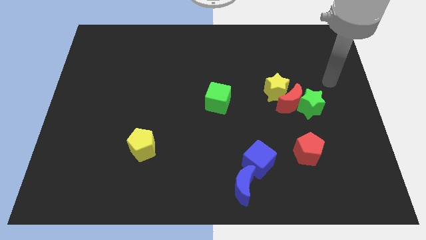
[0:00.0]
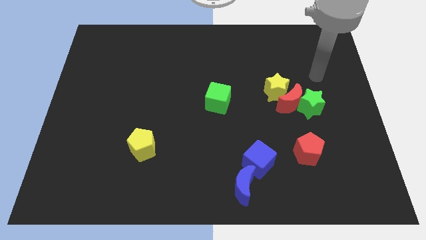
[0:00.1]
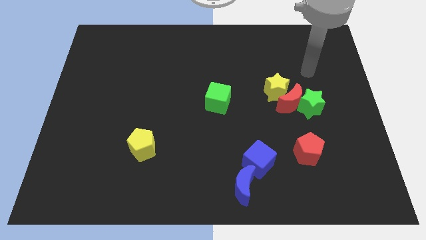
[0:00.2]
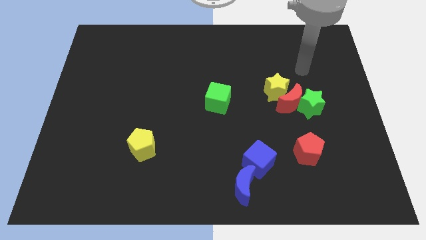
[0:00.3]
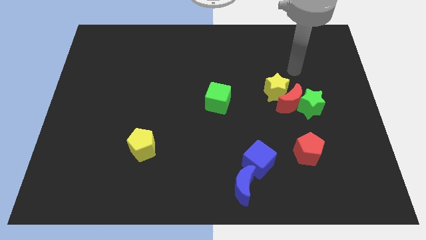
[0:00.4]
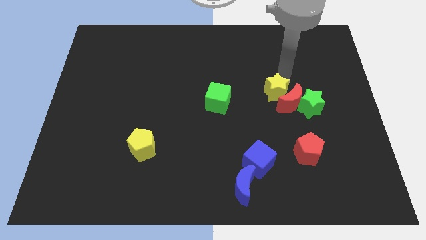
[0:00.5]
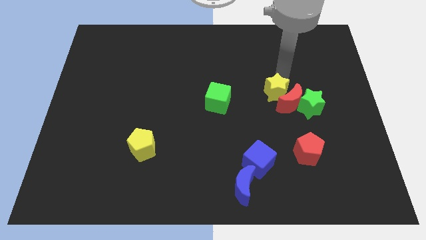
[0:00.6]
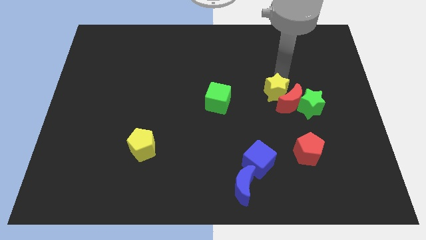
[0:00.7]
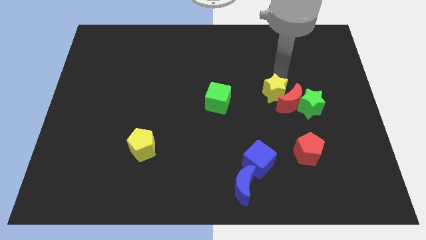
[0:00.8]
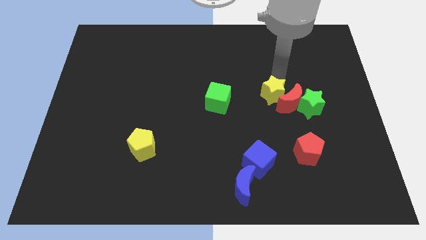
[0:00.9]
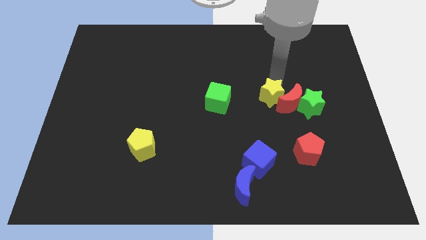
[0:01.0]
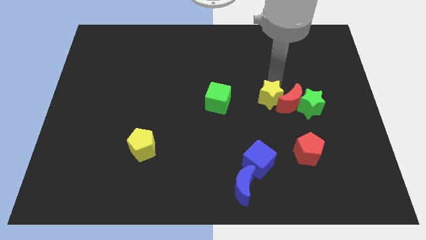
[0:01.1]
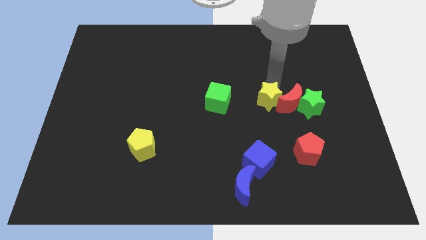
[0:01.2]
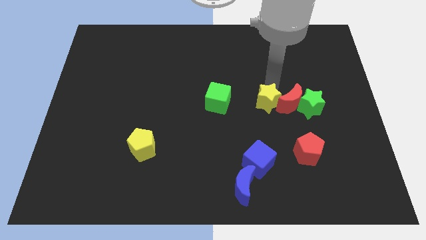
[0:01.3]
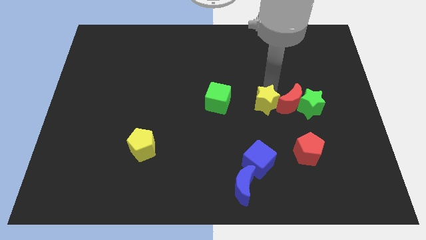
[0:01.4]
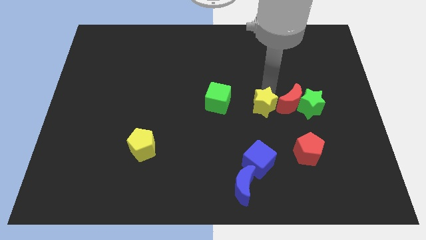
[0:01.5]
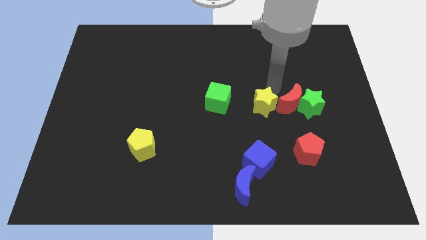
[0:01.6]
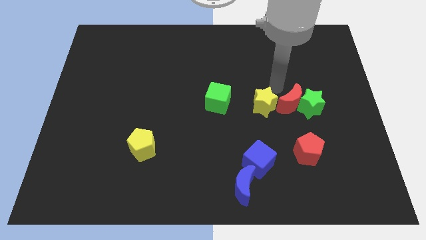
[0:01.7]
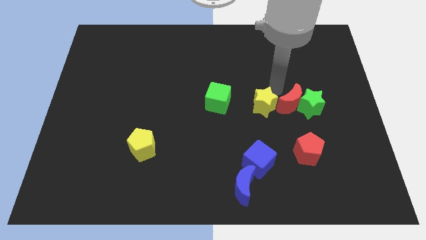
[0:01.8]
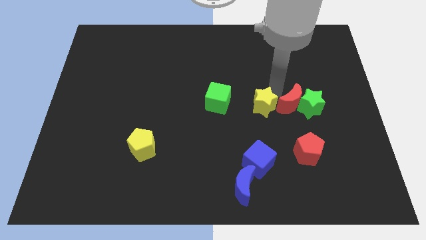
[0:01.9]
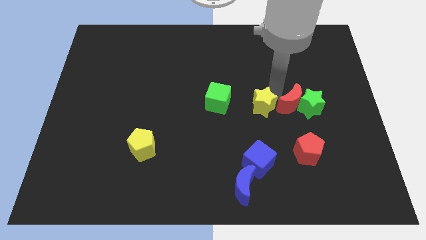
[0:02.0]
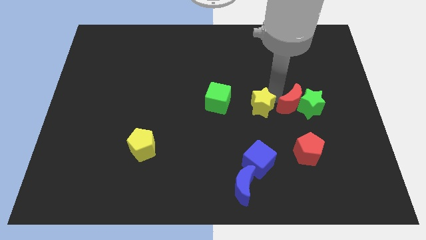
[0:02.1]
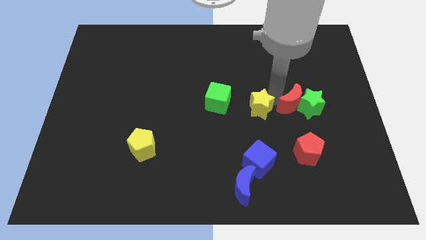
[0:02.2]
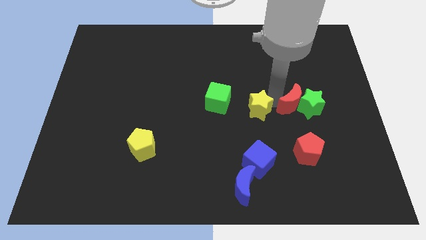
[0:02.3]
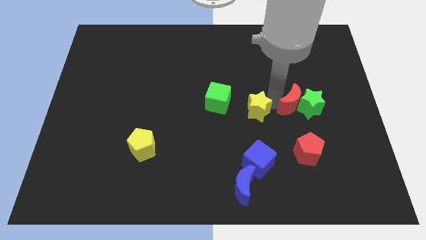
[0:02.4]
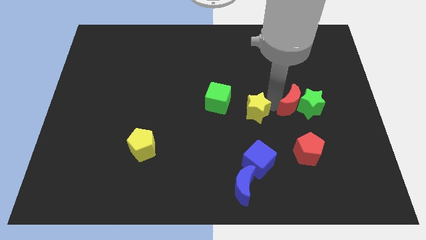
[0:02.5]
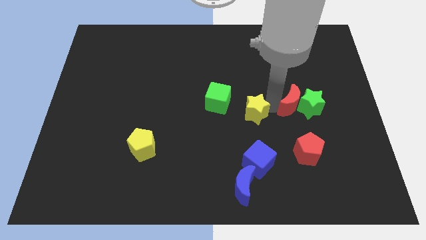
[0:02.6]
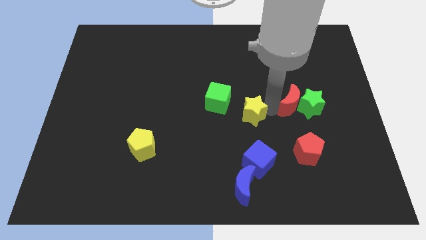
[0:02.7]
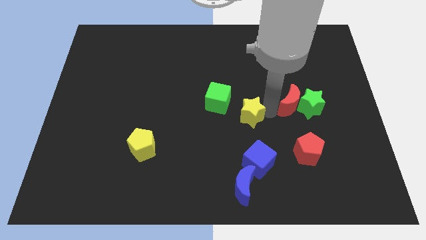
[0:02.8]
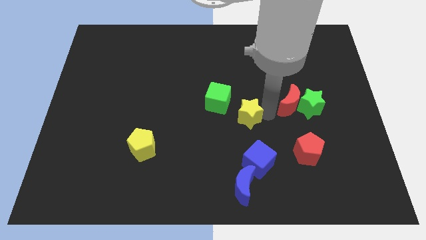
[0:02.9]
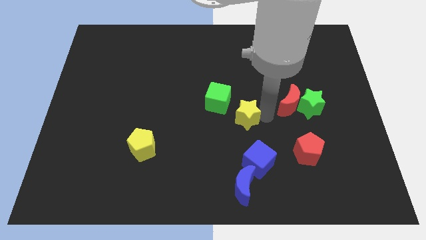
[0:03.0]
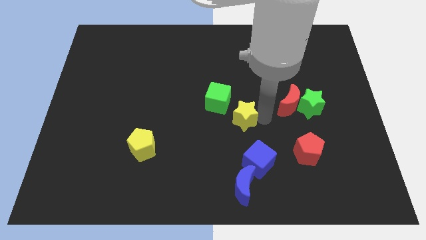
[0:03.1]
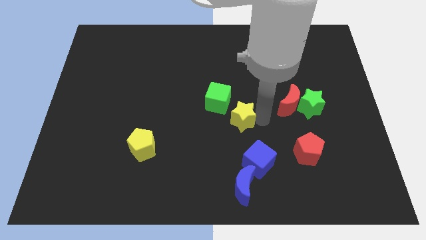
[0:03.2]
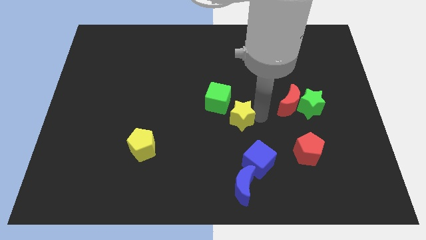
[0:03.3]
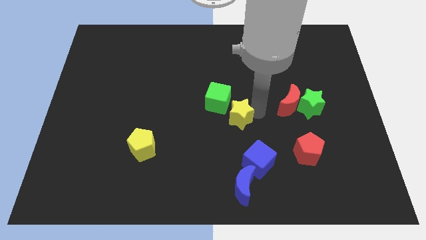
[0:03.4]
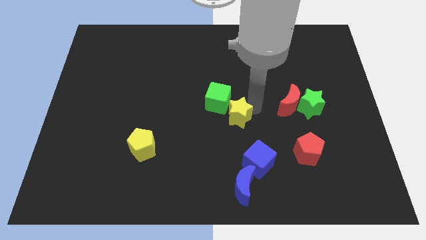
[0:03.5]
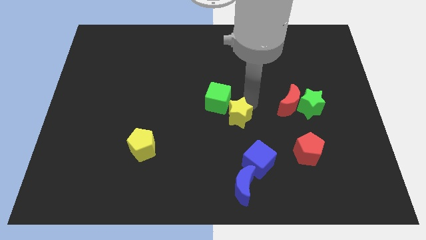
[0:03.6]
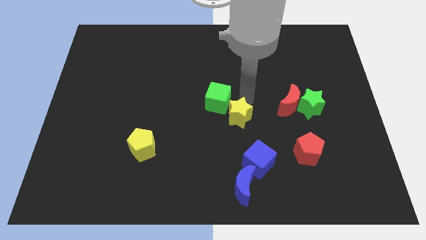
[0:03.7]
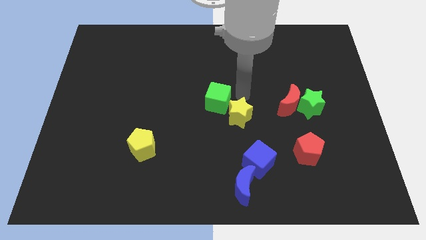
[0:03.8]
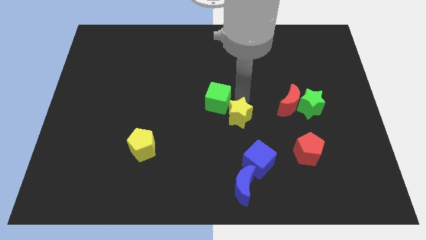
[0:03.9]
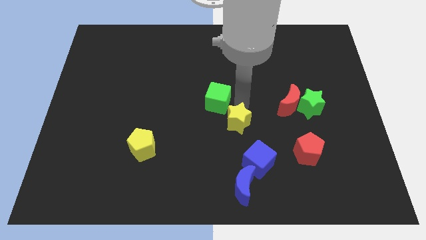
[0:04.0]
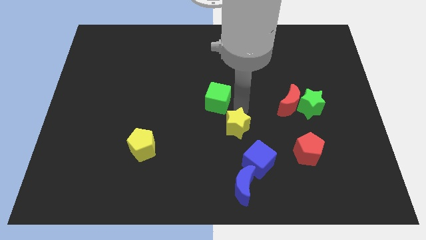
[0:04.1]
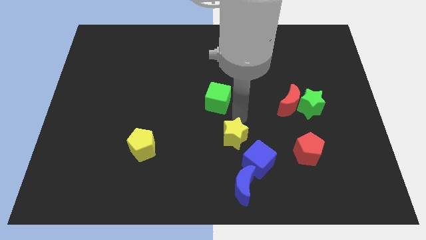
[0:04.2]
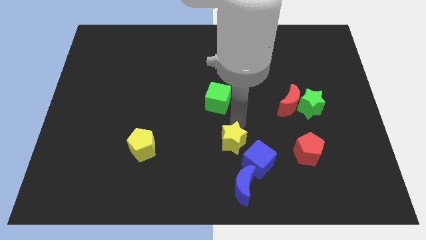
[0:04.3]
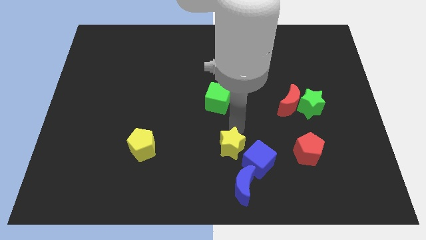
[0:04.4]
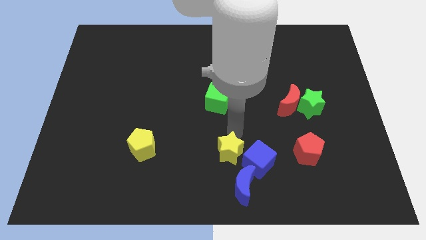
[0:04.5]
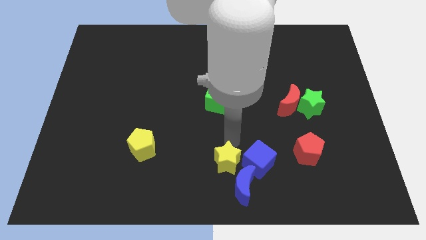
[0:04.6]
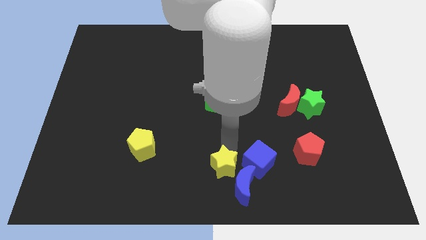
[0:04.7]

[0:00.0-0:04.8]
put the yellow star close to the blue moon

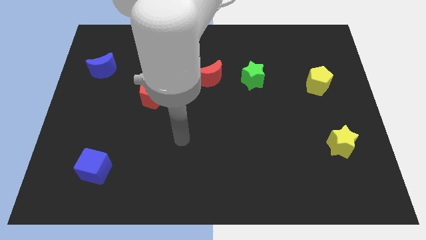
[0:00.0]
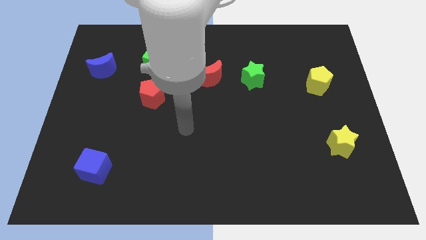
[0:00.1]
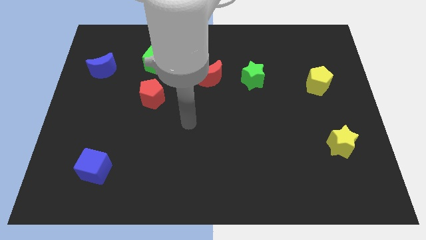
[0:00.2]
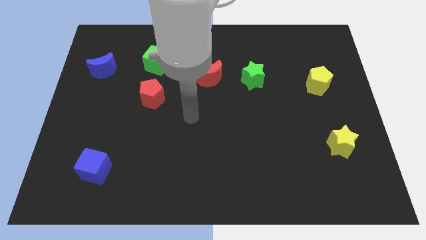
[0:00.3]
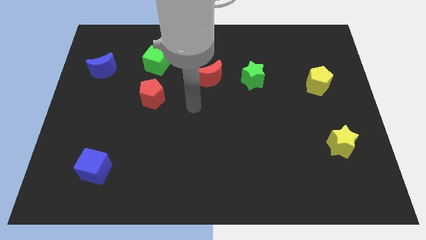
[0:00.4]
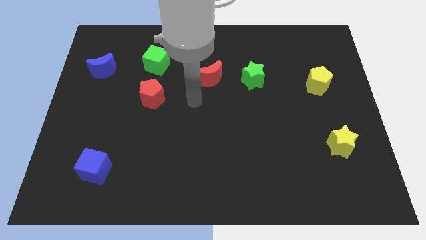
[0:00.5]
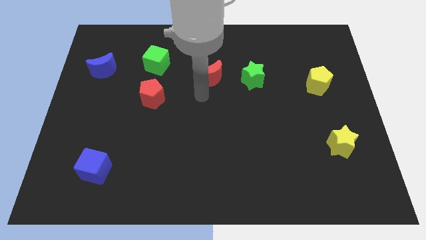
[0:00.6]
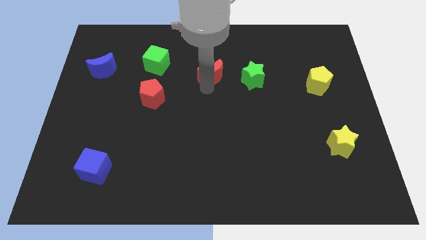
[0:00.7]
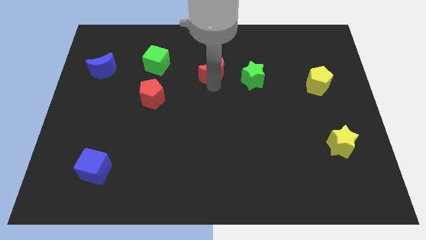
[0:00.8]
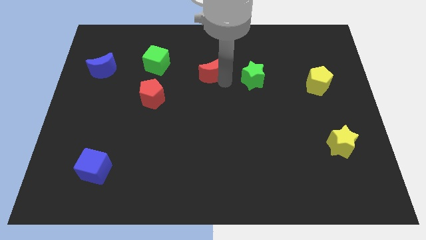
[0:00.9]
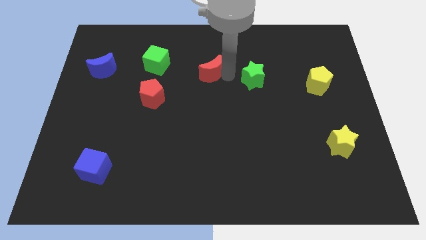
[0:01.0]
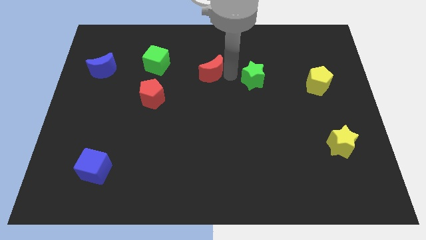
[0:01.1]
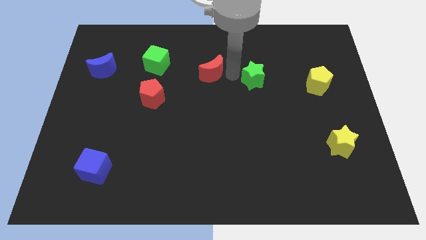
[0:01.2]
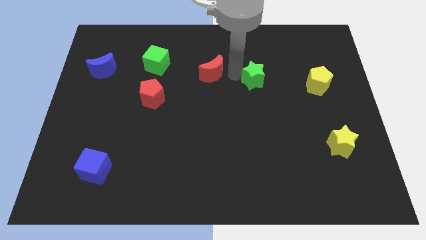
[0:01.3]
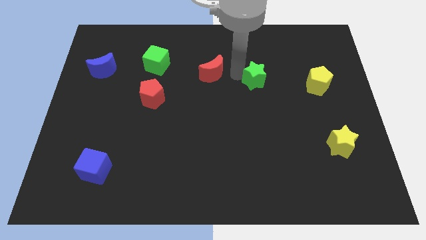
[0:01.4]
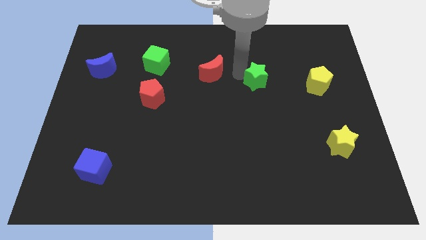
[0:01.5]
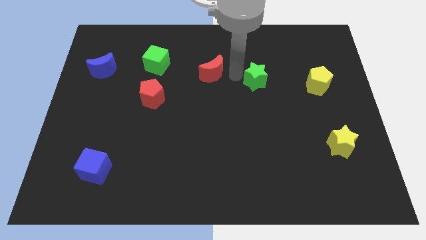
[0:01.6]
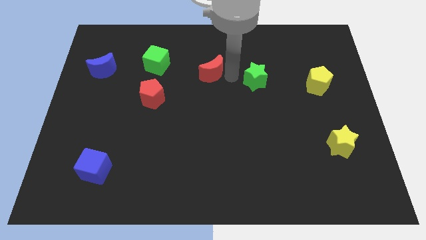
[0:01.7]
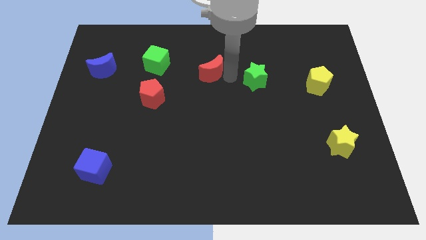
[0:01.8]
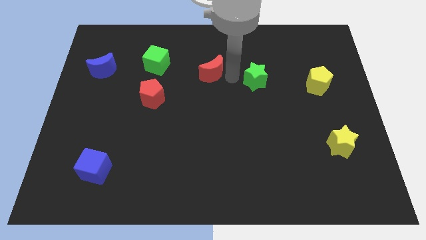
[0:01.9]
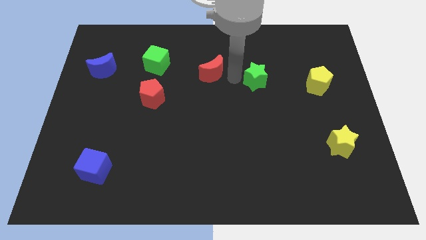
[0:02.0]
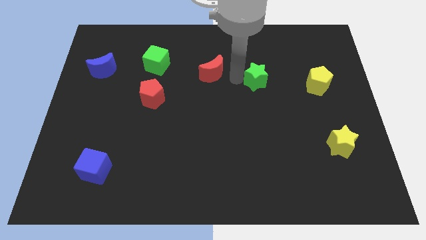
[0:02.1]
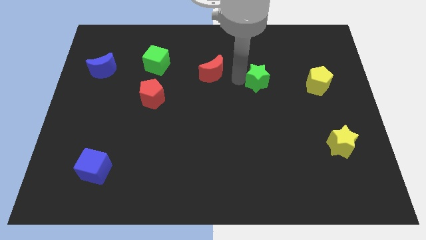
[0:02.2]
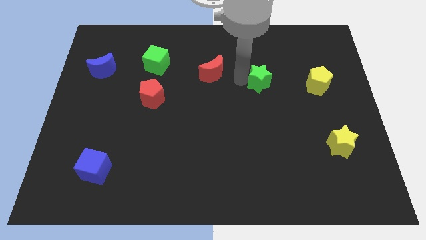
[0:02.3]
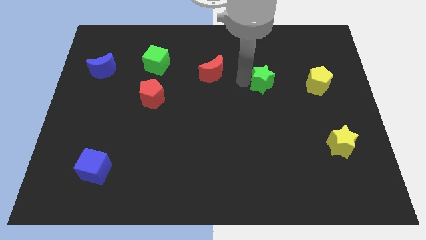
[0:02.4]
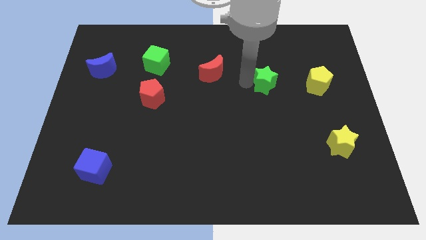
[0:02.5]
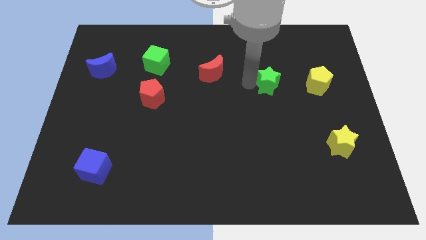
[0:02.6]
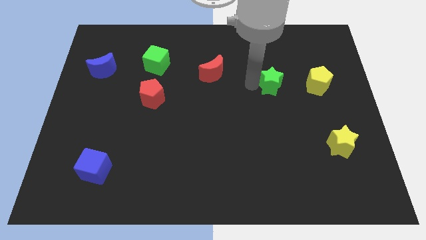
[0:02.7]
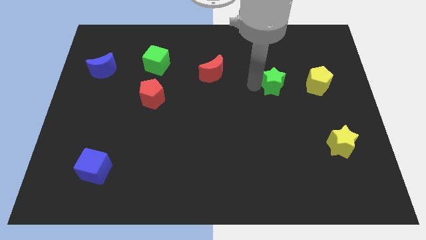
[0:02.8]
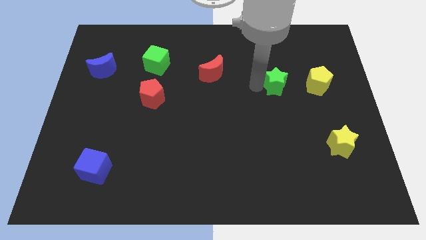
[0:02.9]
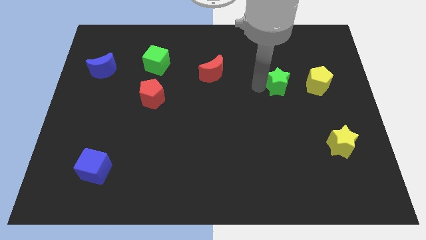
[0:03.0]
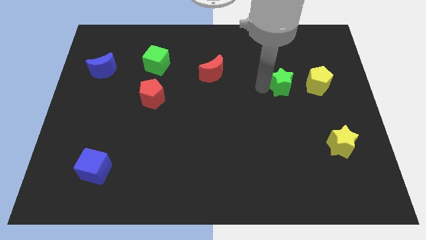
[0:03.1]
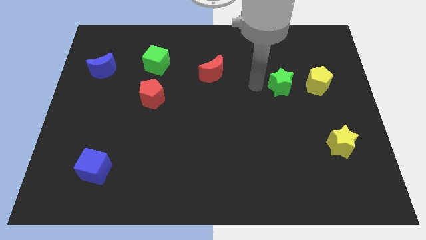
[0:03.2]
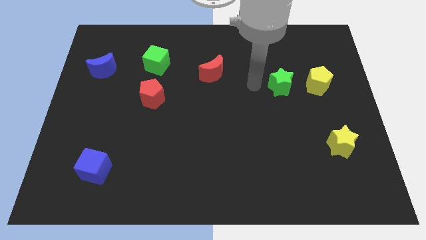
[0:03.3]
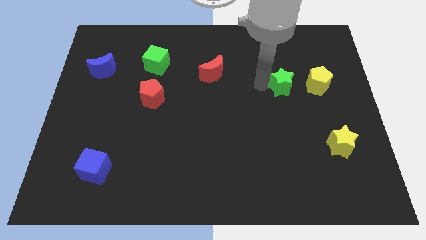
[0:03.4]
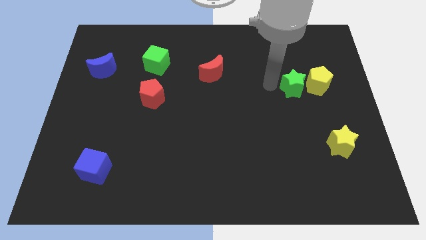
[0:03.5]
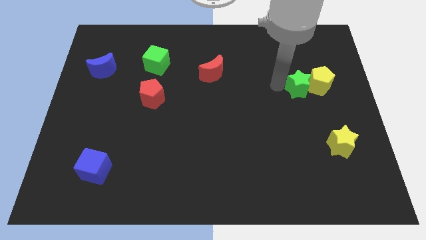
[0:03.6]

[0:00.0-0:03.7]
push the green star towards the yellow pentagon
